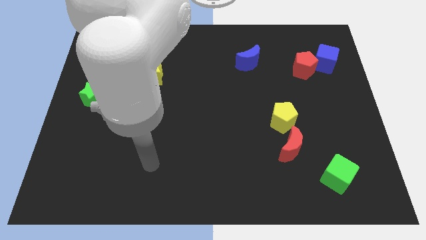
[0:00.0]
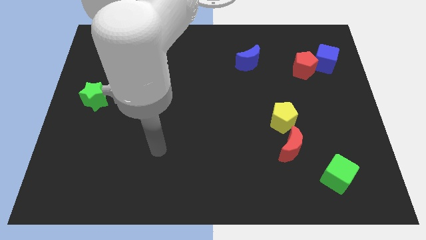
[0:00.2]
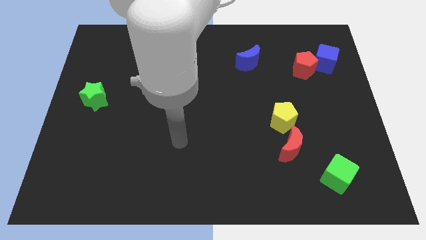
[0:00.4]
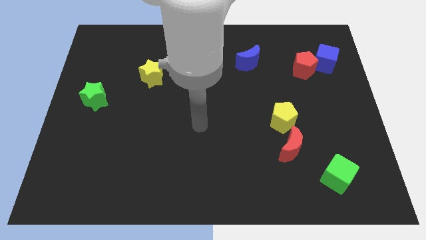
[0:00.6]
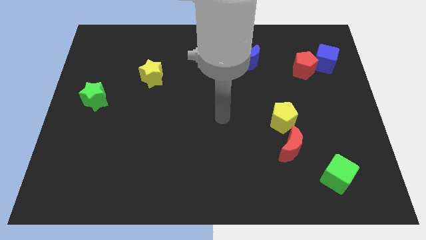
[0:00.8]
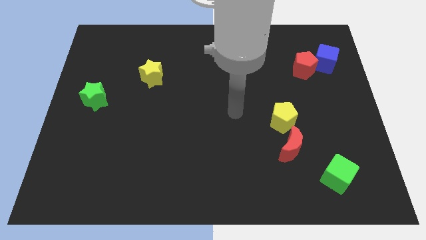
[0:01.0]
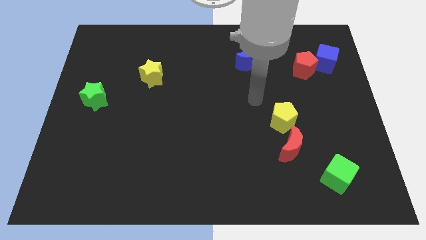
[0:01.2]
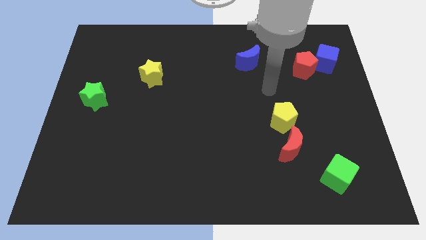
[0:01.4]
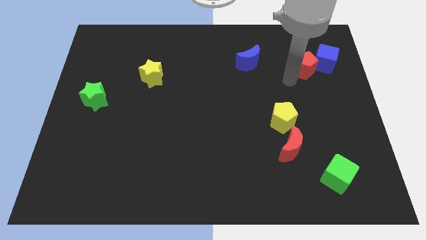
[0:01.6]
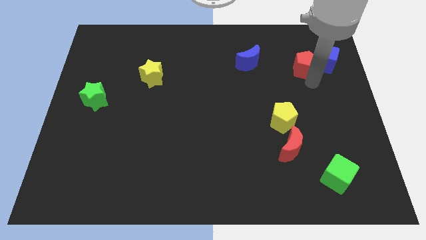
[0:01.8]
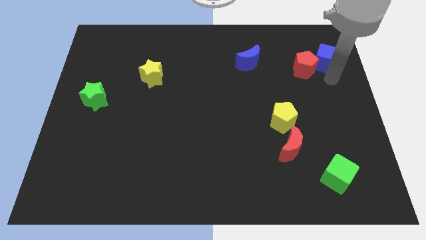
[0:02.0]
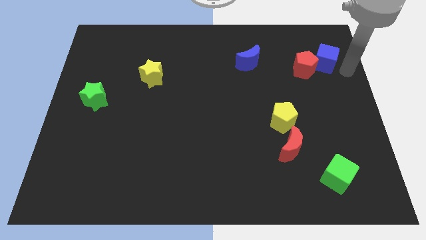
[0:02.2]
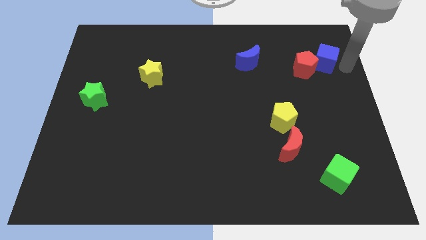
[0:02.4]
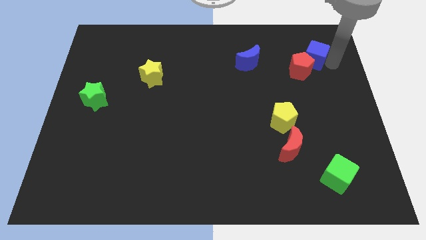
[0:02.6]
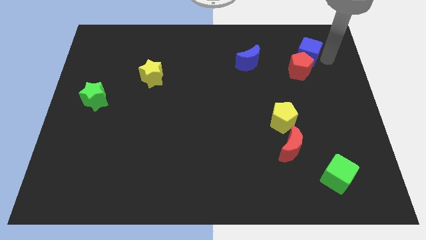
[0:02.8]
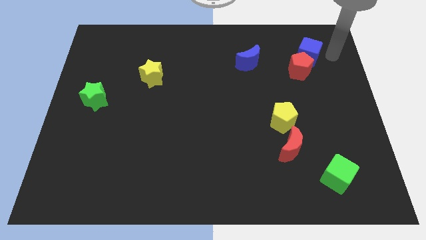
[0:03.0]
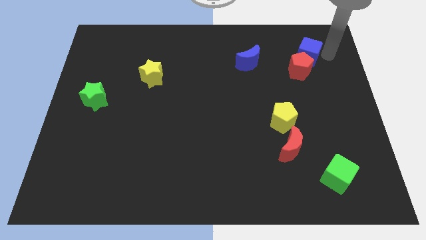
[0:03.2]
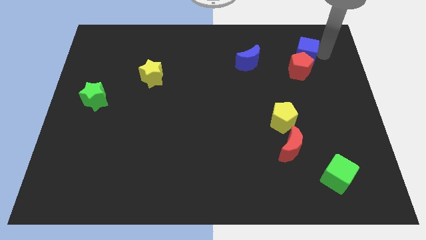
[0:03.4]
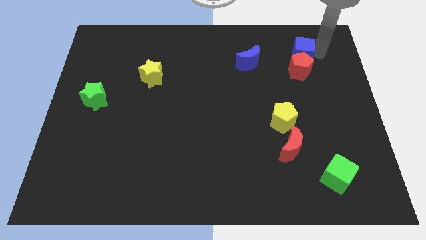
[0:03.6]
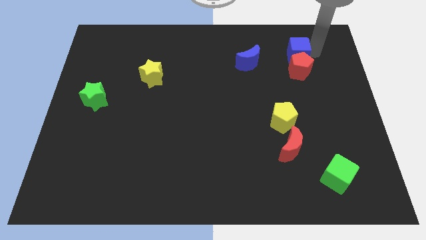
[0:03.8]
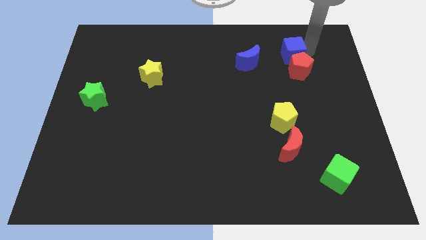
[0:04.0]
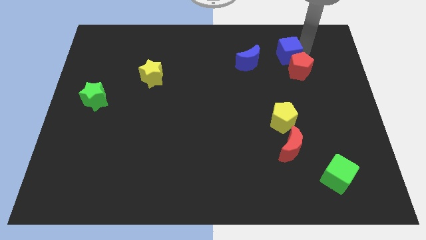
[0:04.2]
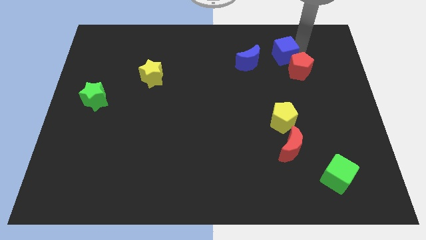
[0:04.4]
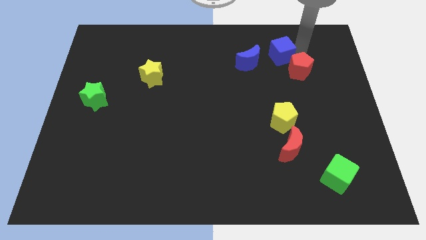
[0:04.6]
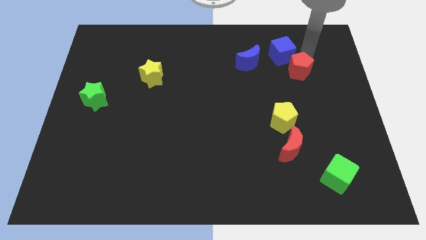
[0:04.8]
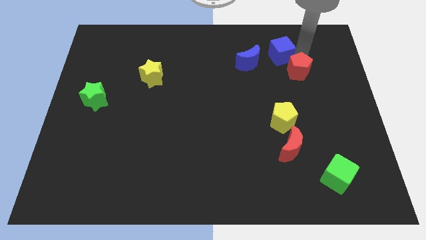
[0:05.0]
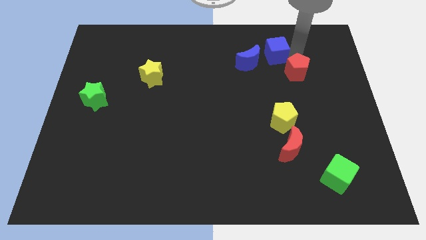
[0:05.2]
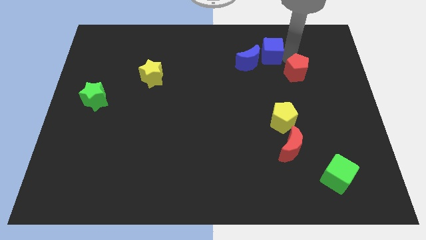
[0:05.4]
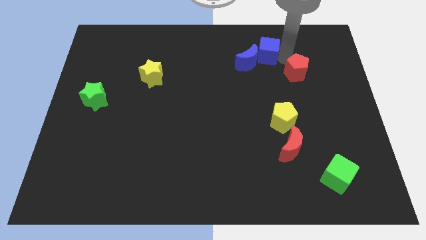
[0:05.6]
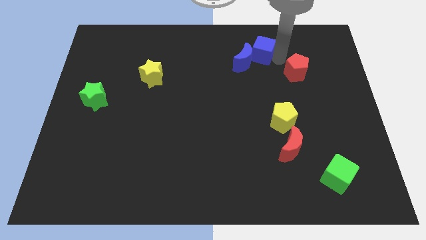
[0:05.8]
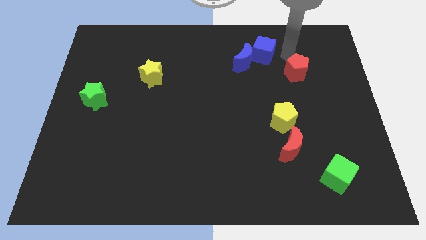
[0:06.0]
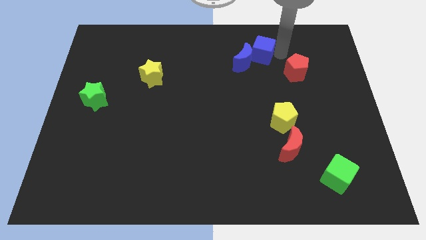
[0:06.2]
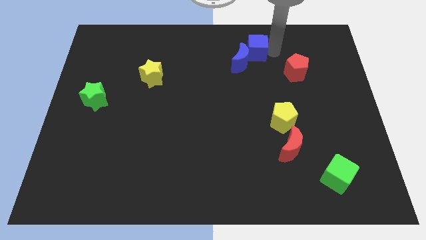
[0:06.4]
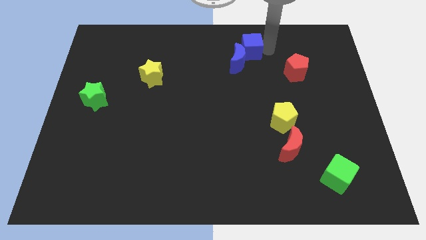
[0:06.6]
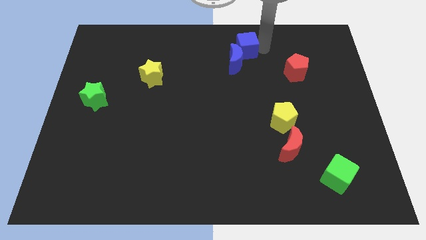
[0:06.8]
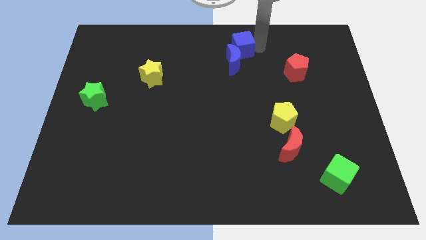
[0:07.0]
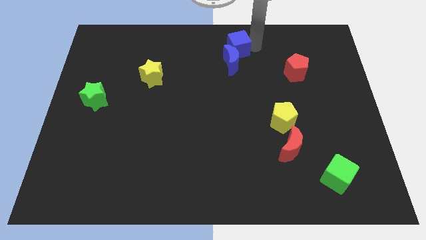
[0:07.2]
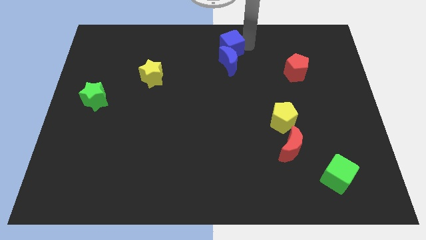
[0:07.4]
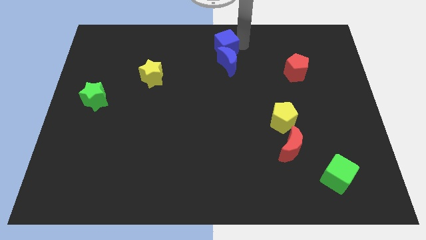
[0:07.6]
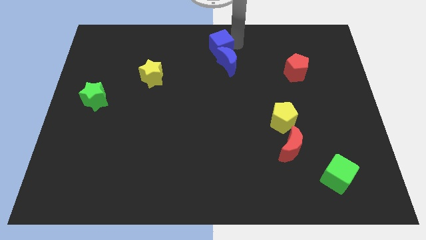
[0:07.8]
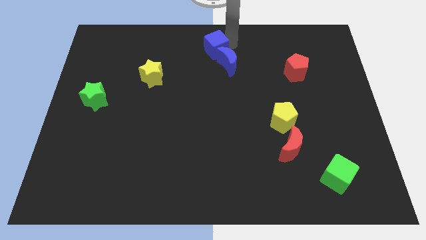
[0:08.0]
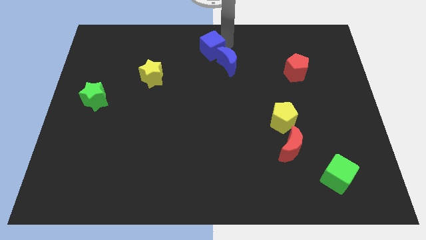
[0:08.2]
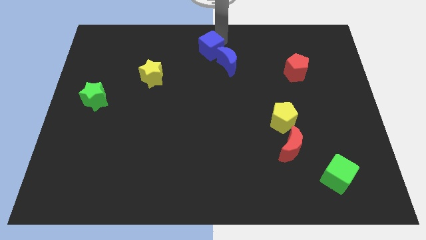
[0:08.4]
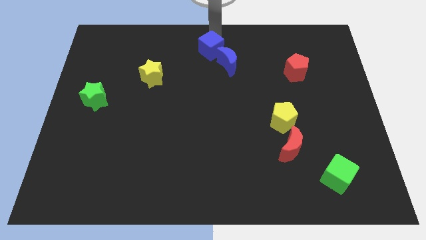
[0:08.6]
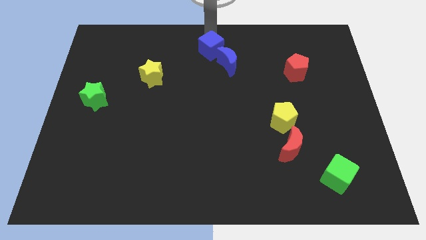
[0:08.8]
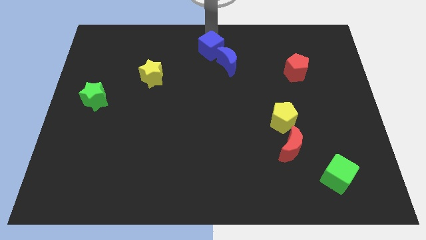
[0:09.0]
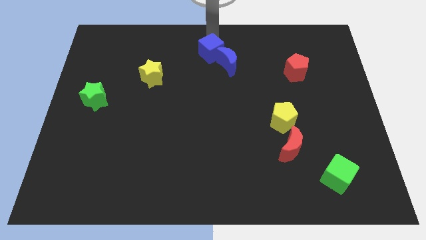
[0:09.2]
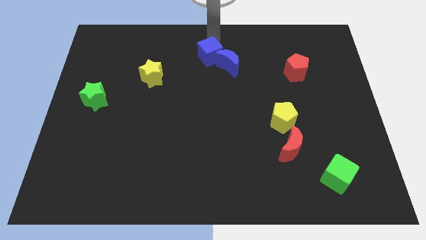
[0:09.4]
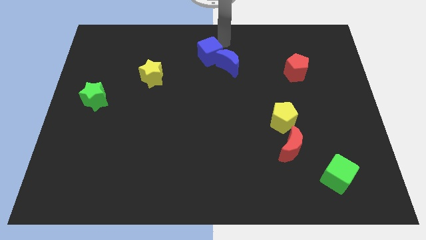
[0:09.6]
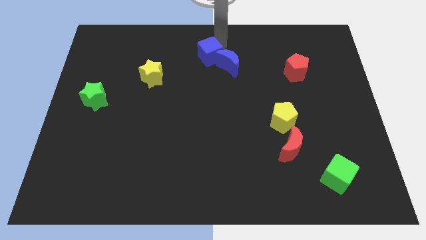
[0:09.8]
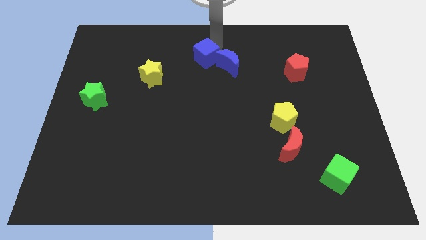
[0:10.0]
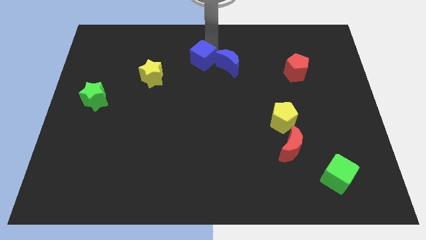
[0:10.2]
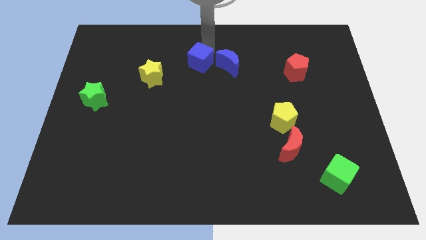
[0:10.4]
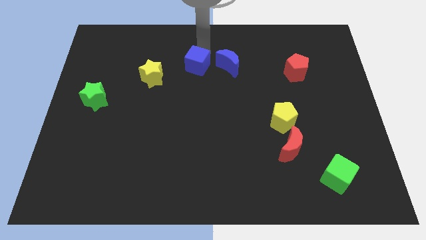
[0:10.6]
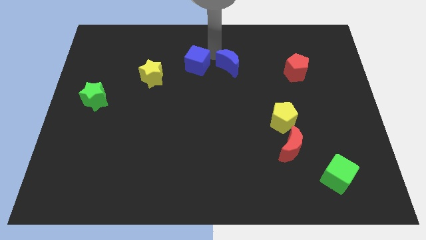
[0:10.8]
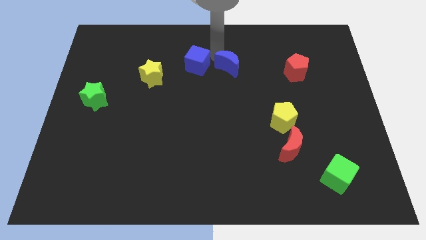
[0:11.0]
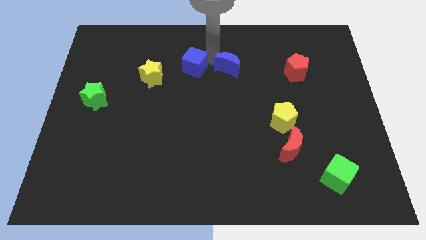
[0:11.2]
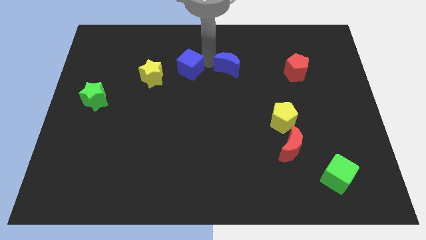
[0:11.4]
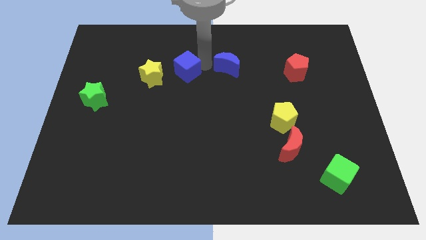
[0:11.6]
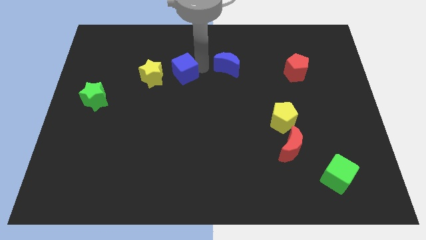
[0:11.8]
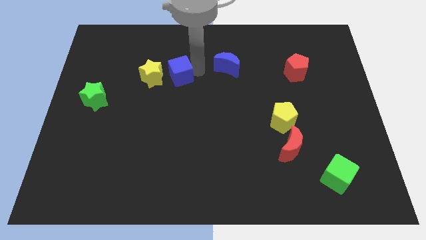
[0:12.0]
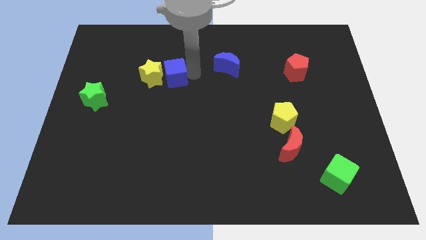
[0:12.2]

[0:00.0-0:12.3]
push the blue cube close to the yellow star

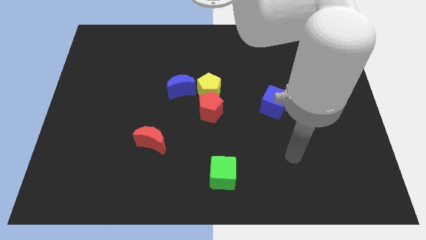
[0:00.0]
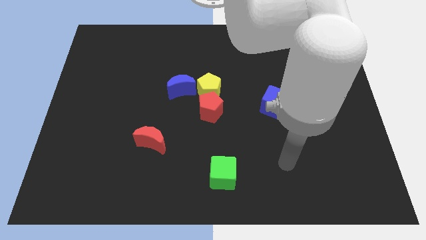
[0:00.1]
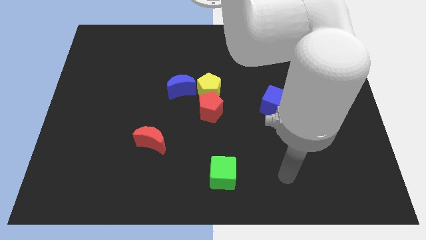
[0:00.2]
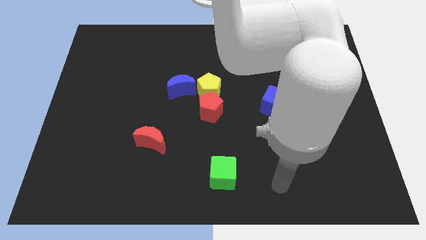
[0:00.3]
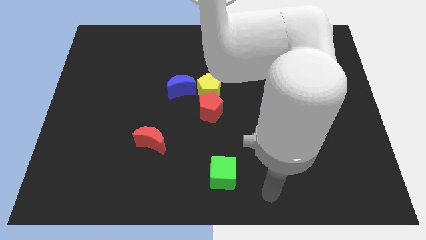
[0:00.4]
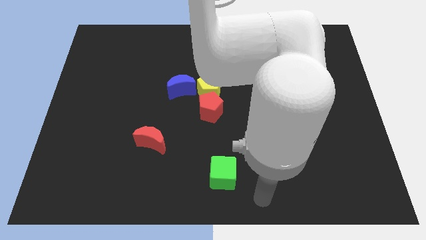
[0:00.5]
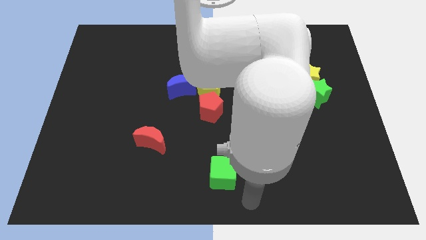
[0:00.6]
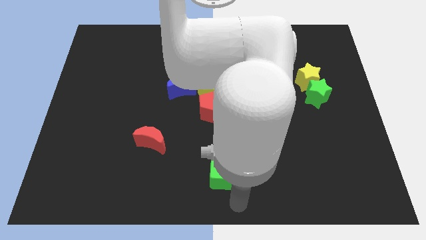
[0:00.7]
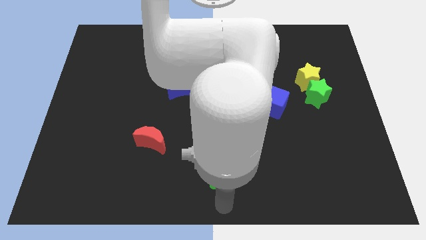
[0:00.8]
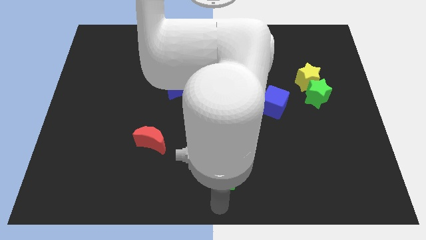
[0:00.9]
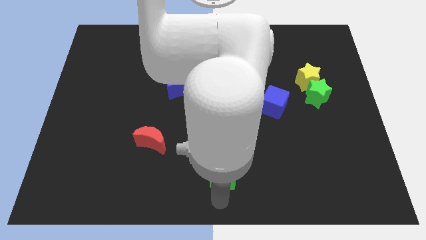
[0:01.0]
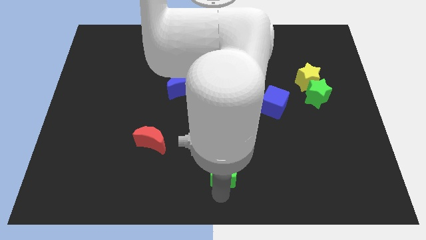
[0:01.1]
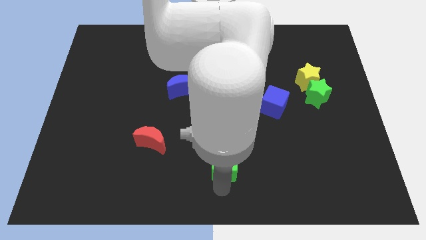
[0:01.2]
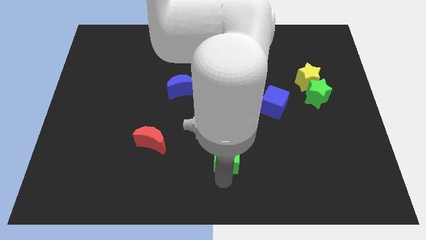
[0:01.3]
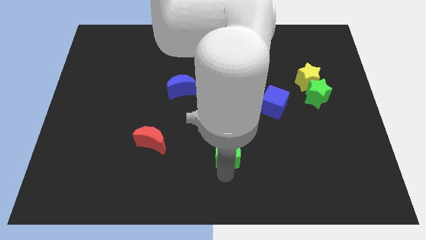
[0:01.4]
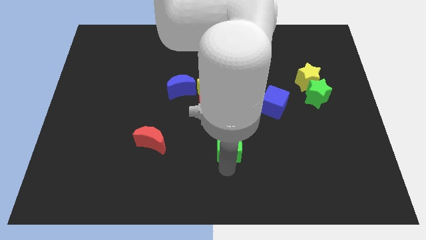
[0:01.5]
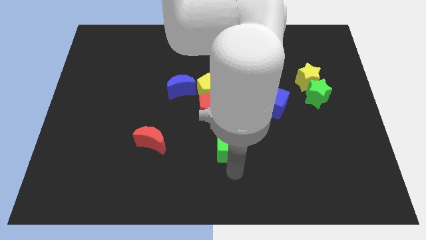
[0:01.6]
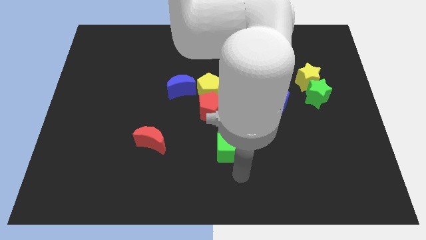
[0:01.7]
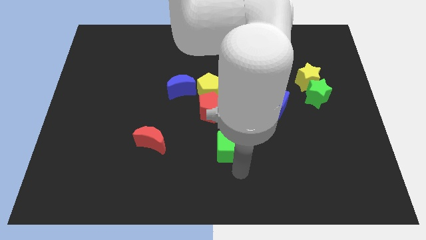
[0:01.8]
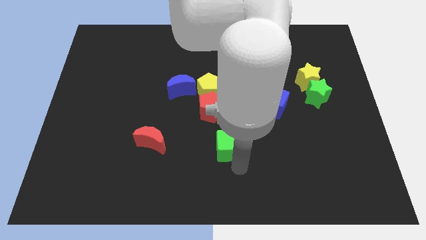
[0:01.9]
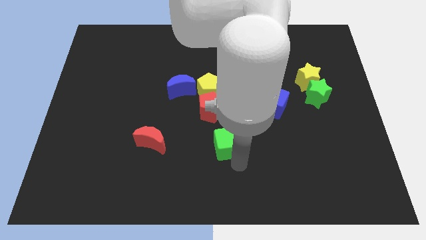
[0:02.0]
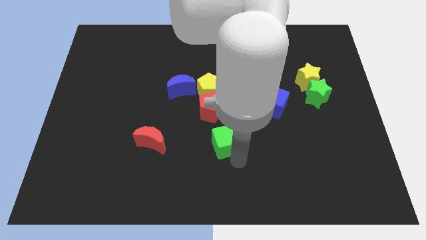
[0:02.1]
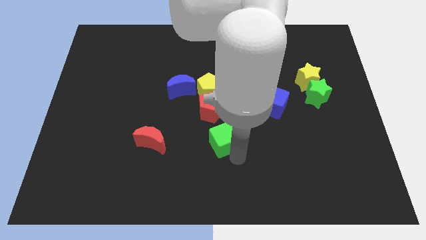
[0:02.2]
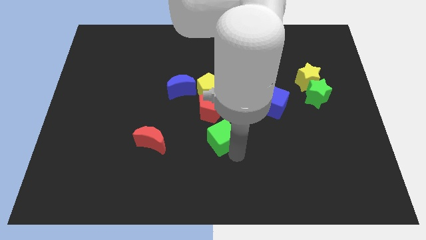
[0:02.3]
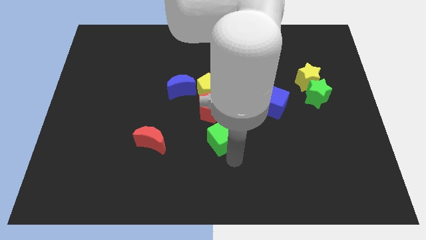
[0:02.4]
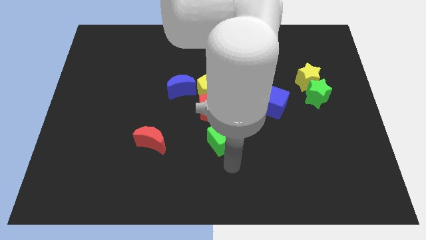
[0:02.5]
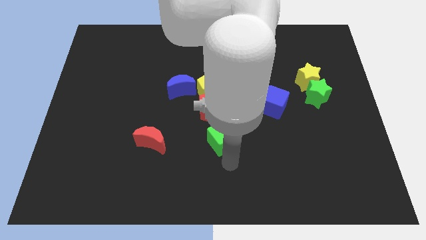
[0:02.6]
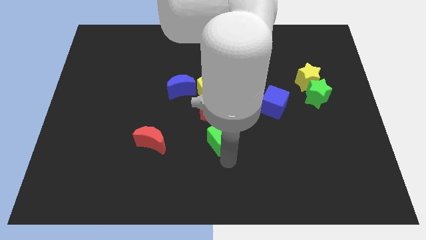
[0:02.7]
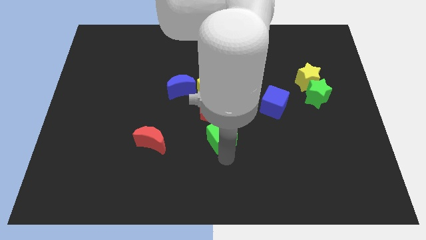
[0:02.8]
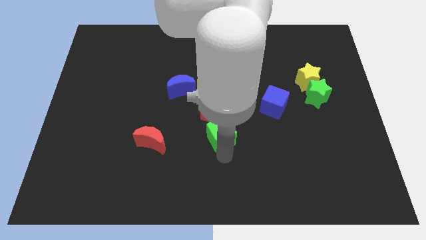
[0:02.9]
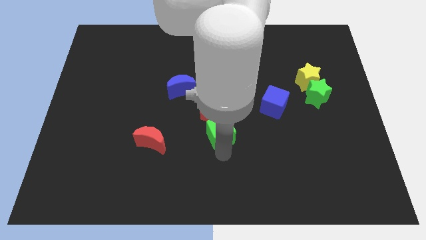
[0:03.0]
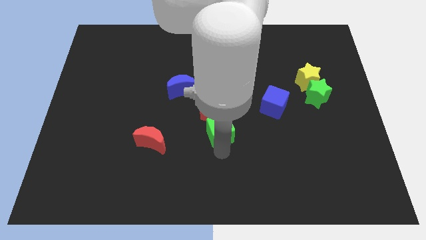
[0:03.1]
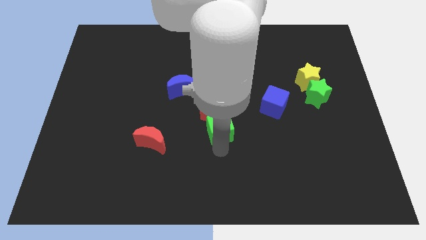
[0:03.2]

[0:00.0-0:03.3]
push the green cube next to the red pentagon
